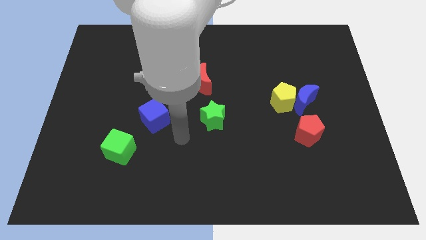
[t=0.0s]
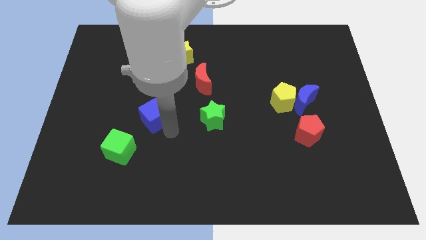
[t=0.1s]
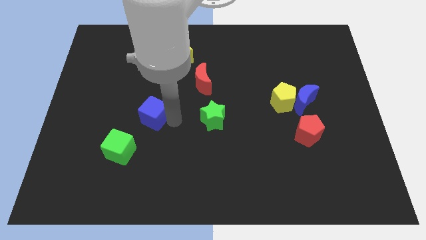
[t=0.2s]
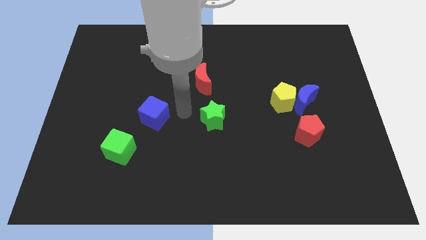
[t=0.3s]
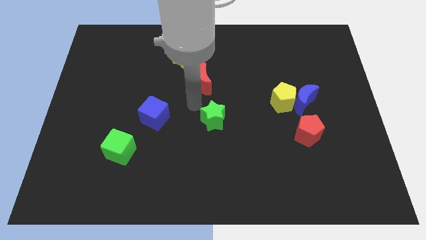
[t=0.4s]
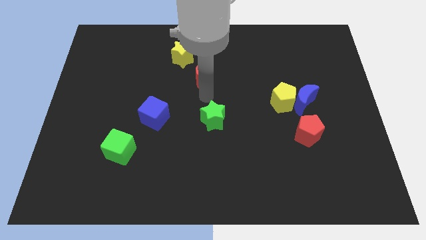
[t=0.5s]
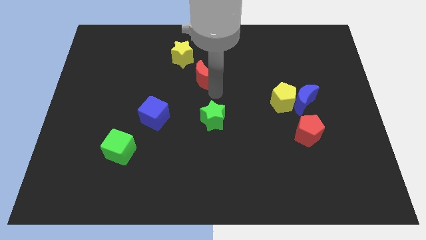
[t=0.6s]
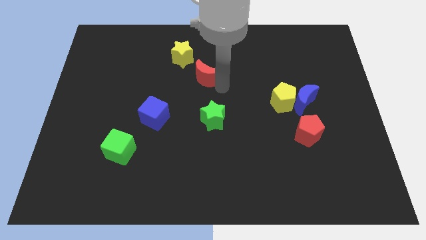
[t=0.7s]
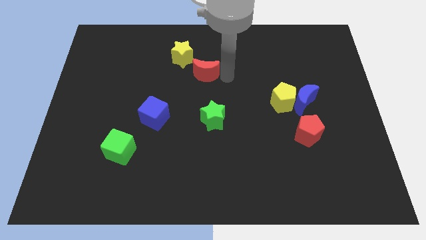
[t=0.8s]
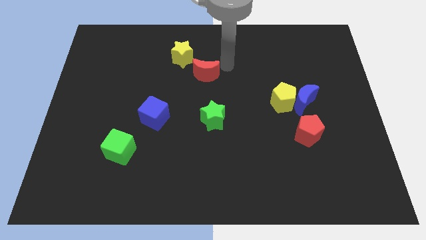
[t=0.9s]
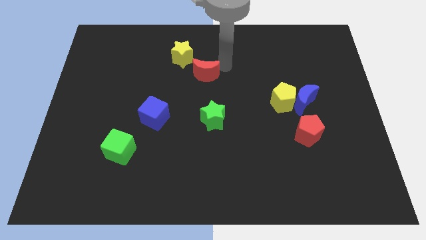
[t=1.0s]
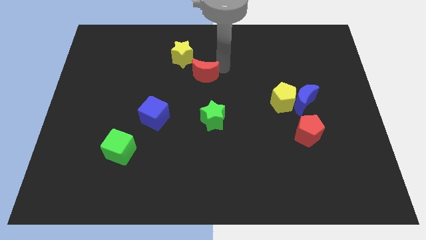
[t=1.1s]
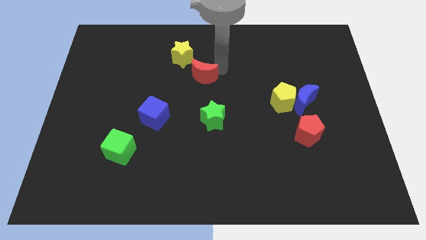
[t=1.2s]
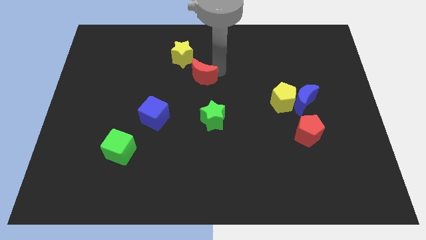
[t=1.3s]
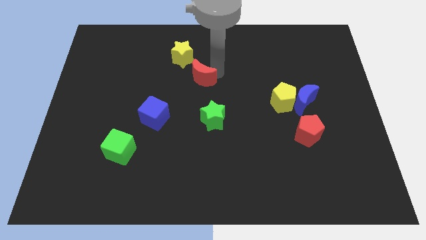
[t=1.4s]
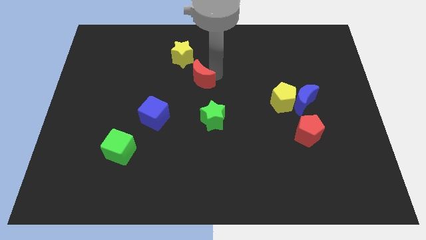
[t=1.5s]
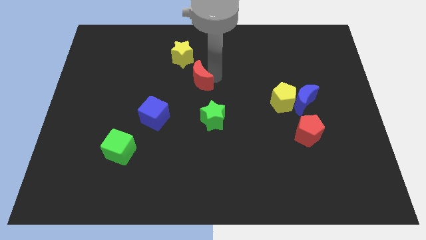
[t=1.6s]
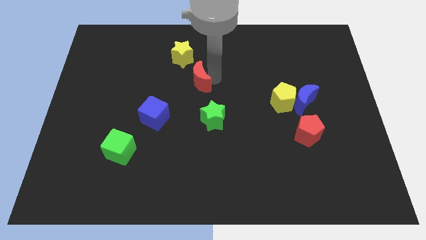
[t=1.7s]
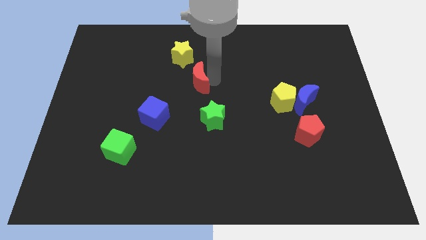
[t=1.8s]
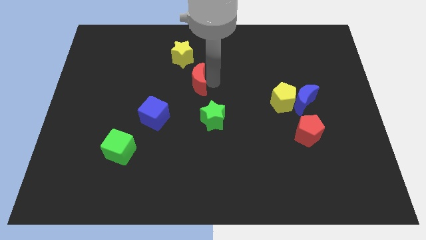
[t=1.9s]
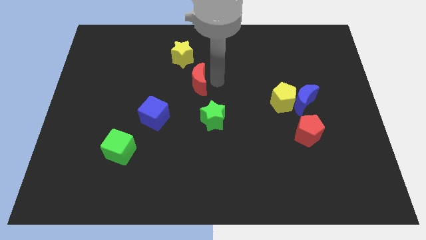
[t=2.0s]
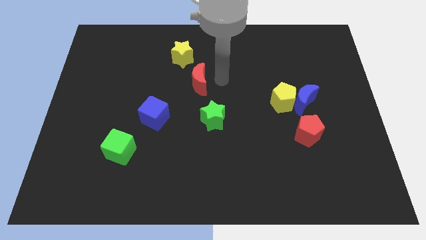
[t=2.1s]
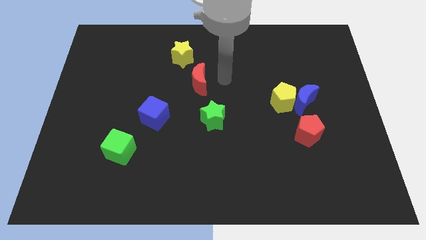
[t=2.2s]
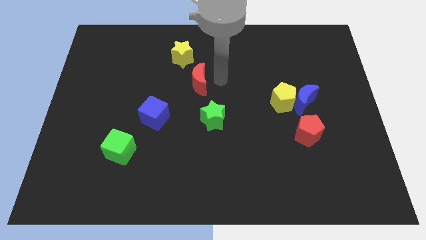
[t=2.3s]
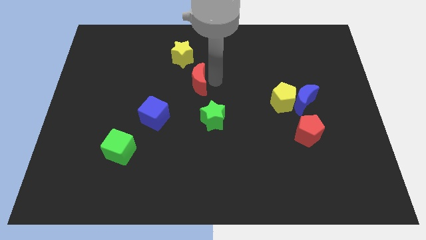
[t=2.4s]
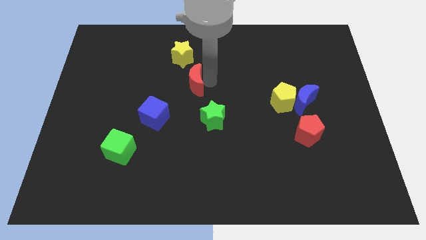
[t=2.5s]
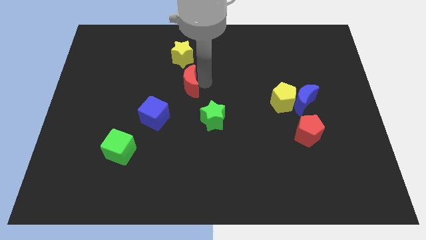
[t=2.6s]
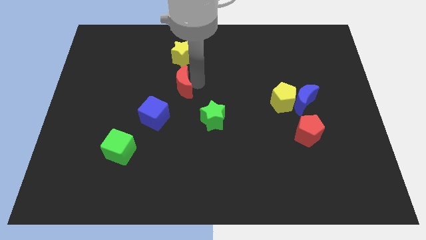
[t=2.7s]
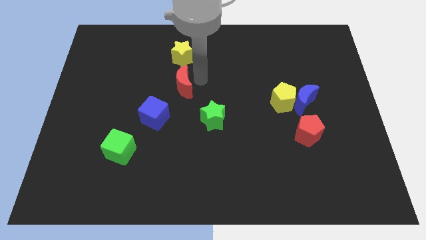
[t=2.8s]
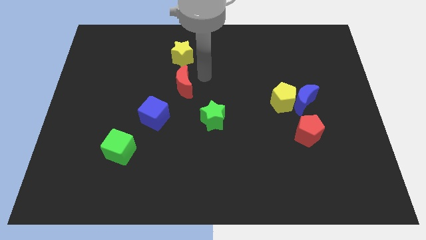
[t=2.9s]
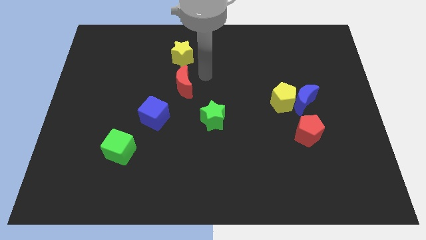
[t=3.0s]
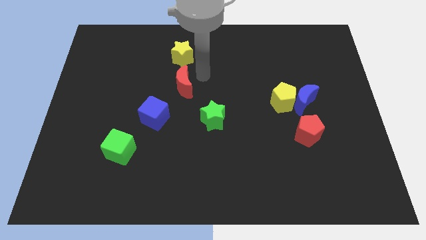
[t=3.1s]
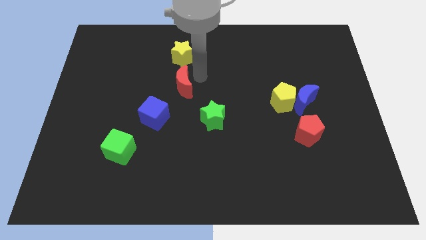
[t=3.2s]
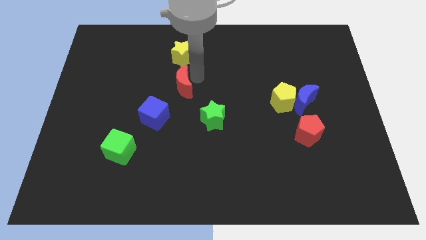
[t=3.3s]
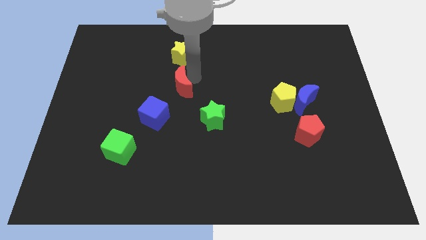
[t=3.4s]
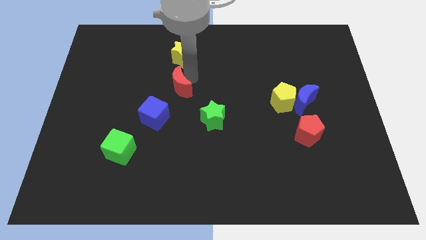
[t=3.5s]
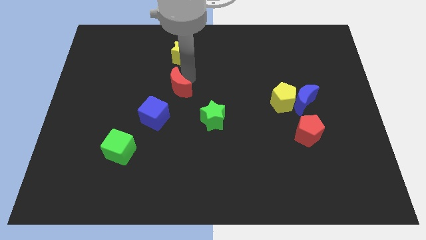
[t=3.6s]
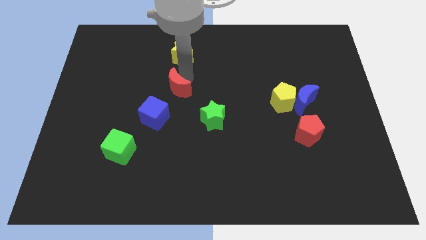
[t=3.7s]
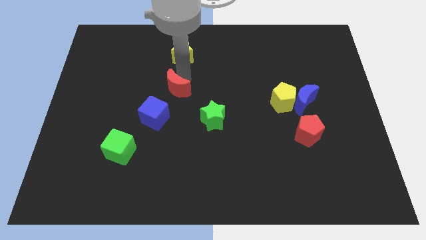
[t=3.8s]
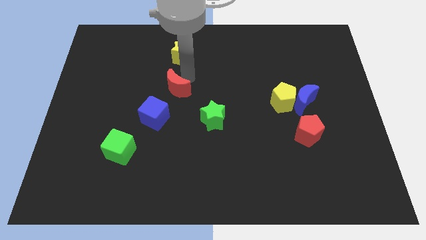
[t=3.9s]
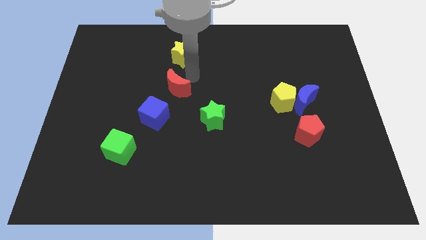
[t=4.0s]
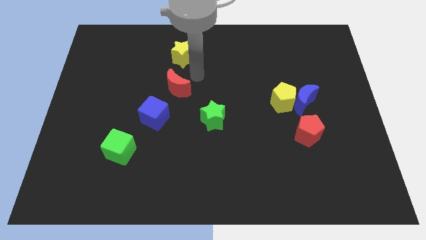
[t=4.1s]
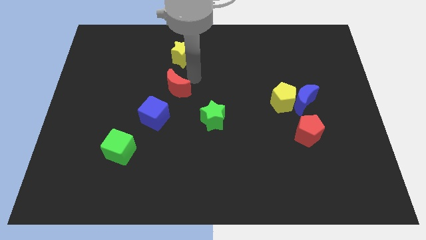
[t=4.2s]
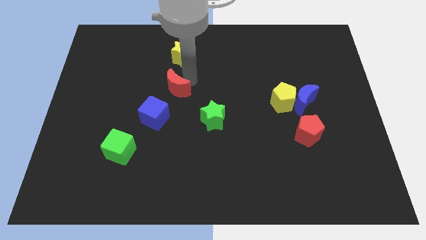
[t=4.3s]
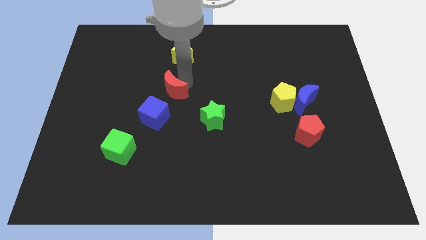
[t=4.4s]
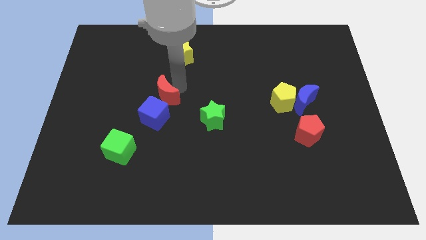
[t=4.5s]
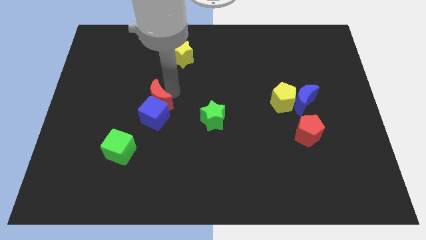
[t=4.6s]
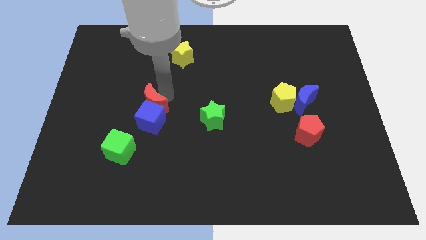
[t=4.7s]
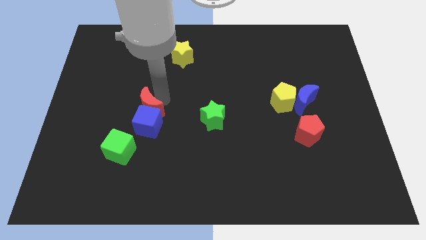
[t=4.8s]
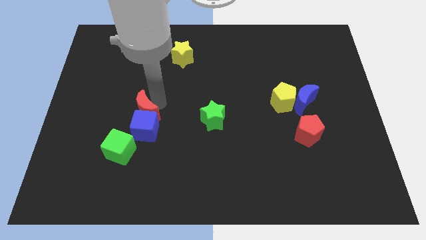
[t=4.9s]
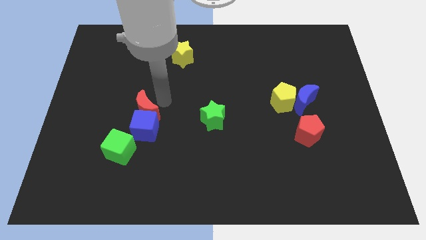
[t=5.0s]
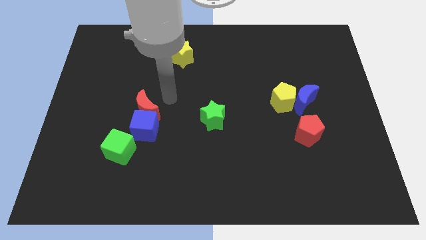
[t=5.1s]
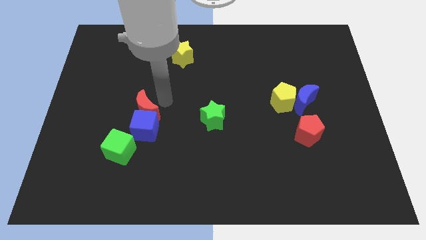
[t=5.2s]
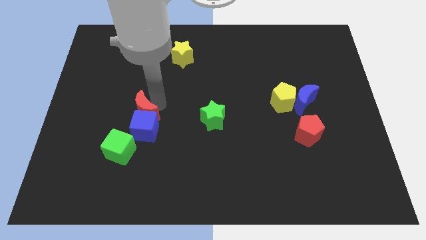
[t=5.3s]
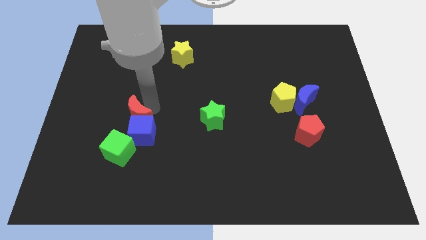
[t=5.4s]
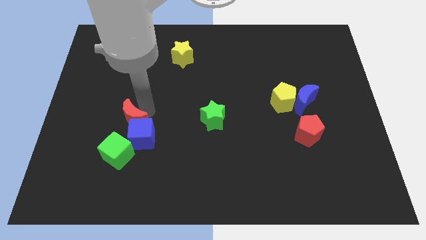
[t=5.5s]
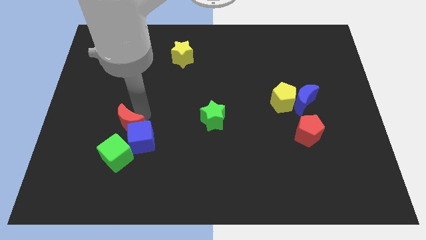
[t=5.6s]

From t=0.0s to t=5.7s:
move the red moon diagonally down and to the left

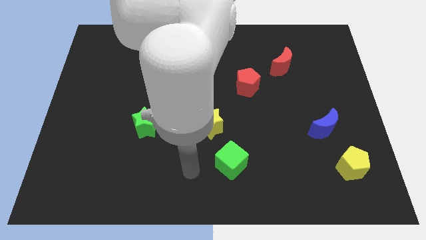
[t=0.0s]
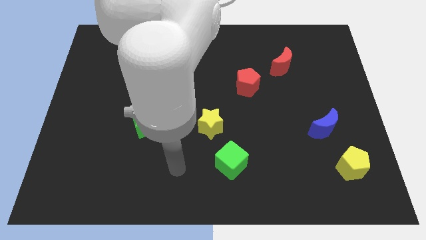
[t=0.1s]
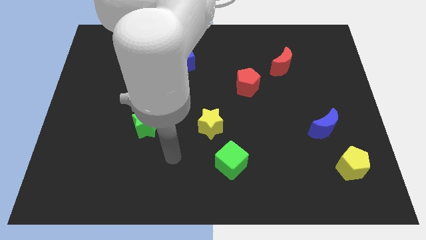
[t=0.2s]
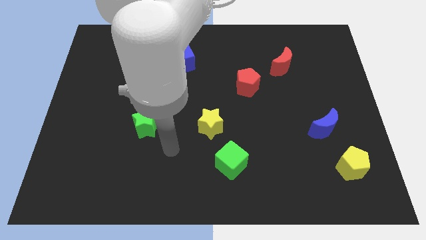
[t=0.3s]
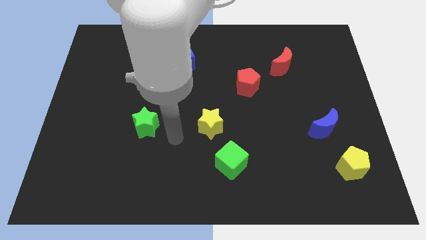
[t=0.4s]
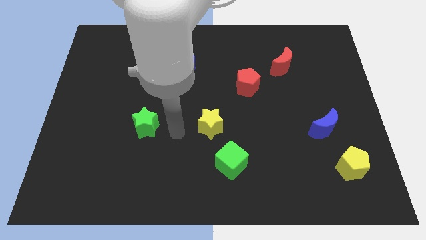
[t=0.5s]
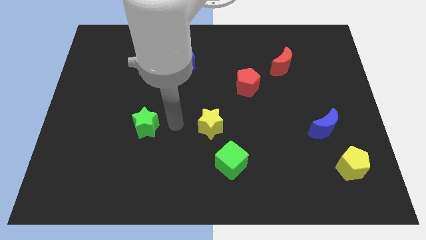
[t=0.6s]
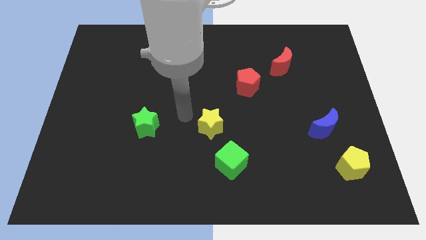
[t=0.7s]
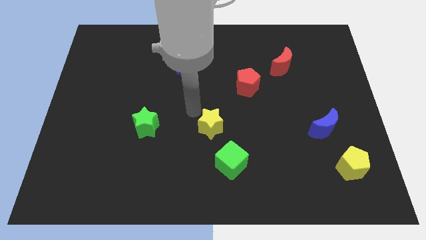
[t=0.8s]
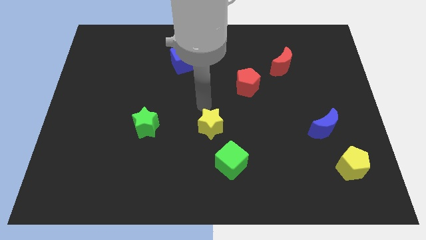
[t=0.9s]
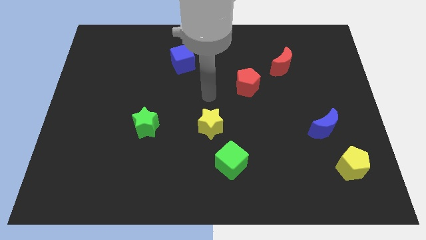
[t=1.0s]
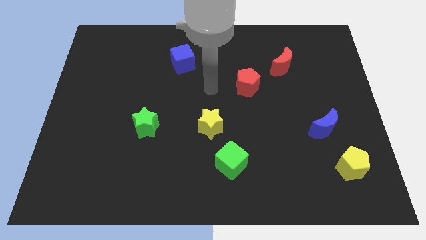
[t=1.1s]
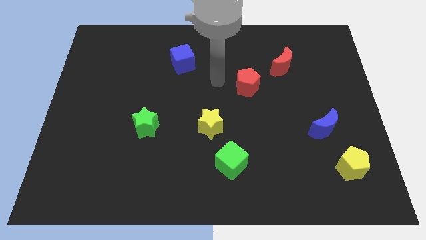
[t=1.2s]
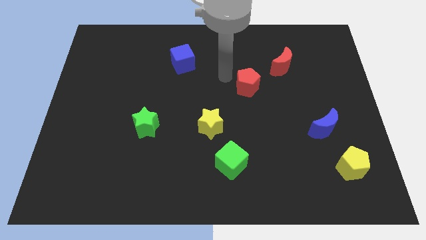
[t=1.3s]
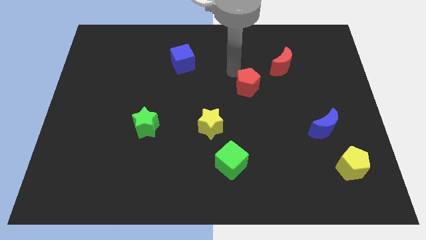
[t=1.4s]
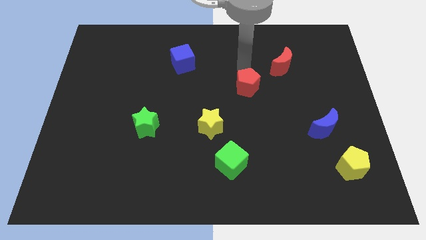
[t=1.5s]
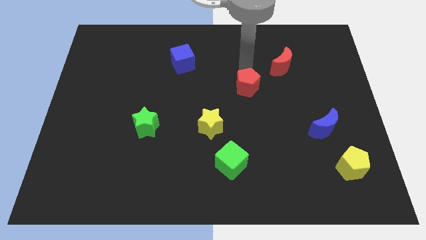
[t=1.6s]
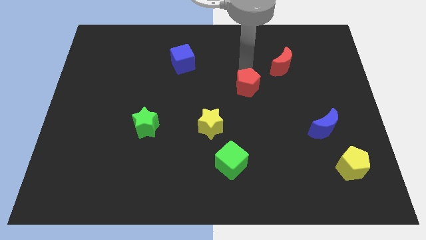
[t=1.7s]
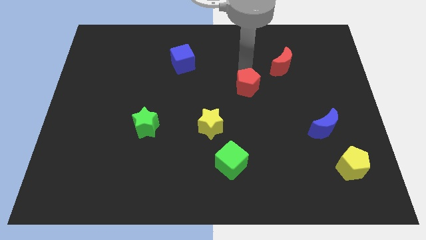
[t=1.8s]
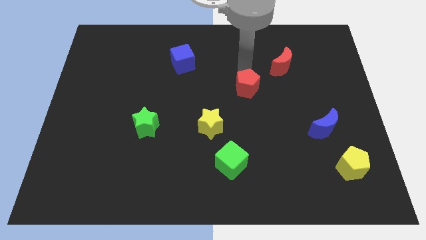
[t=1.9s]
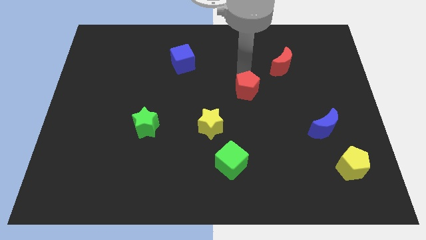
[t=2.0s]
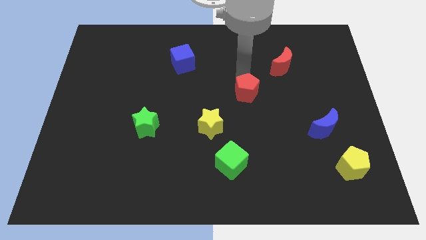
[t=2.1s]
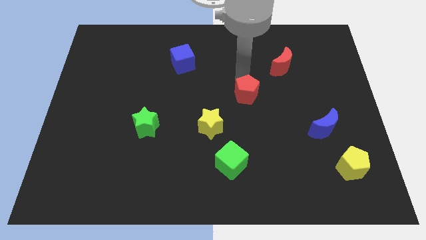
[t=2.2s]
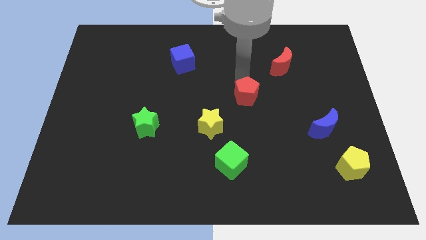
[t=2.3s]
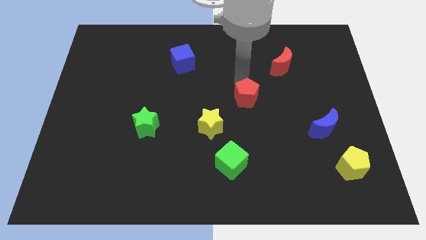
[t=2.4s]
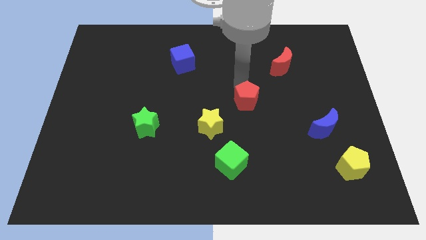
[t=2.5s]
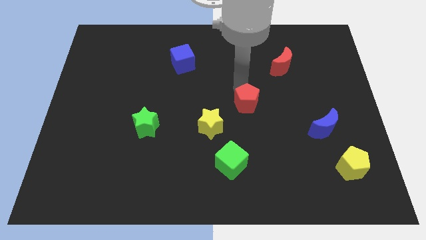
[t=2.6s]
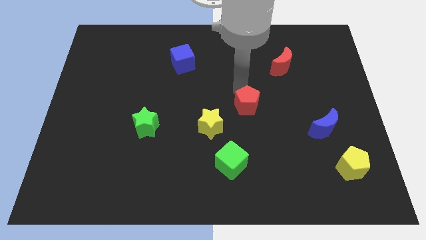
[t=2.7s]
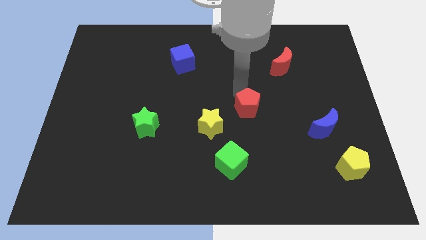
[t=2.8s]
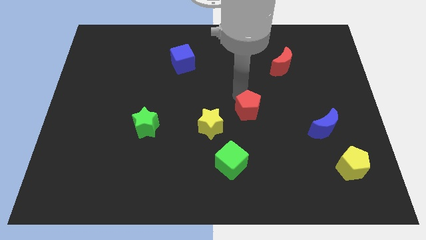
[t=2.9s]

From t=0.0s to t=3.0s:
slightly push the red pentagon down
